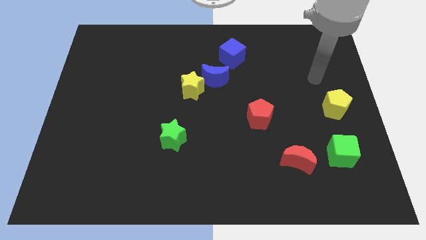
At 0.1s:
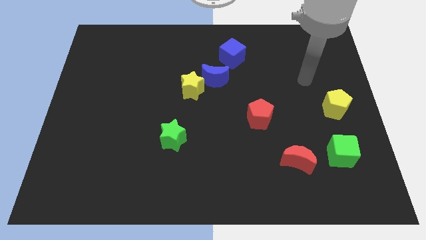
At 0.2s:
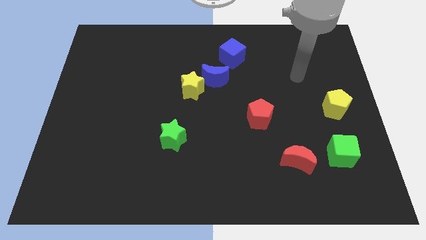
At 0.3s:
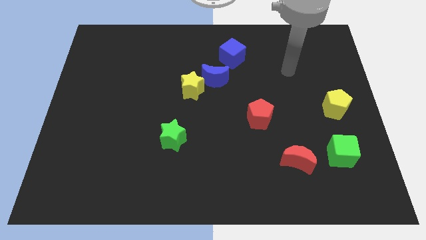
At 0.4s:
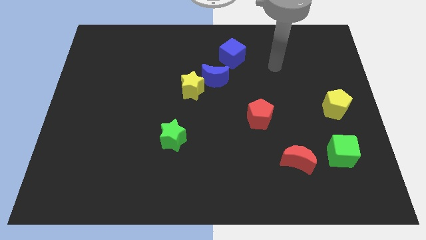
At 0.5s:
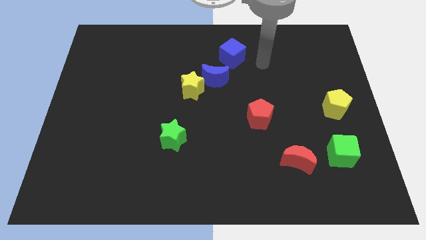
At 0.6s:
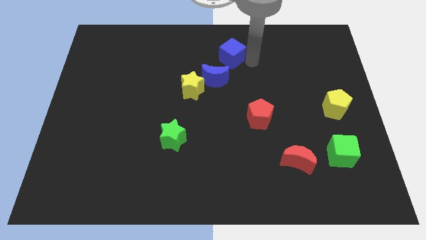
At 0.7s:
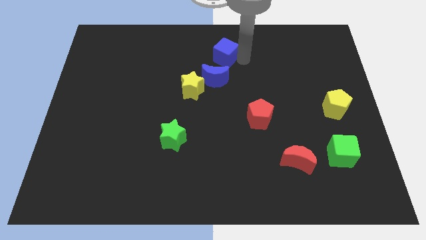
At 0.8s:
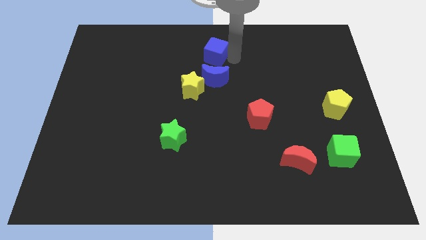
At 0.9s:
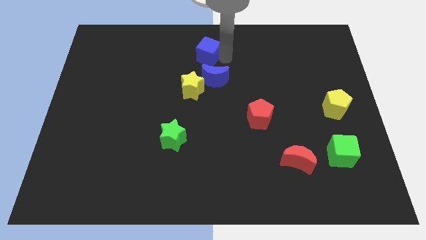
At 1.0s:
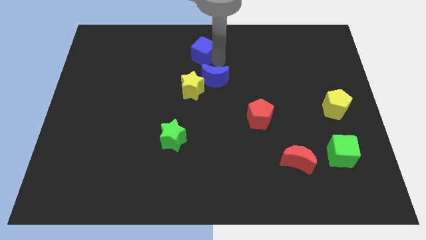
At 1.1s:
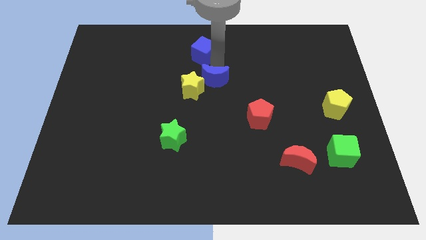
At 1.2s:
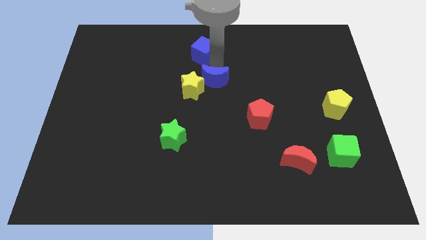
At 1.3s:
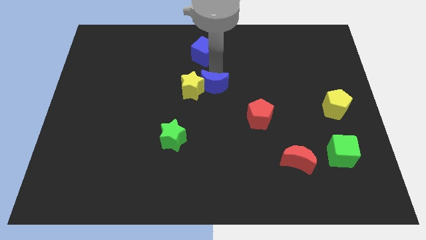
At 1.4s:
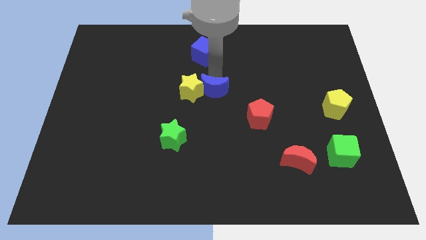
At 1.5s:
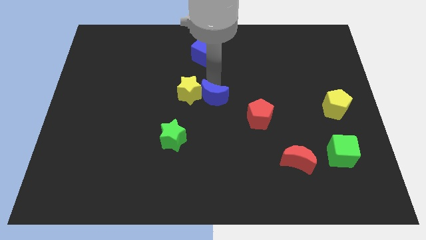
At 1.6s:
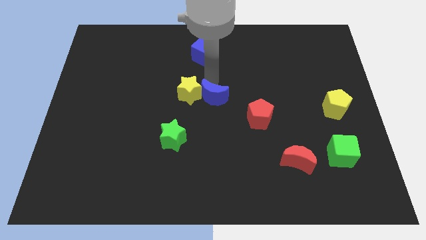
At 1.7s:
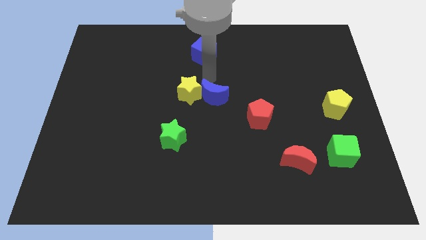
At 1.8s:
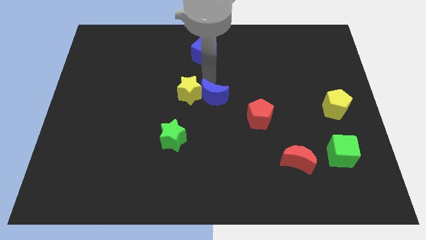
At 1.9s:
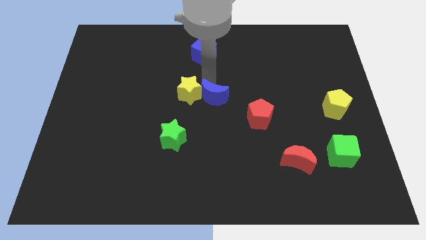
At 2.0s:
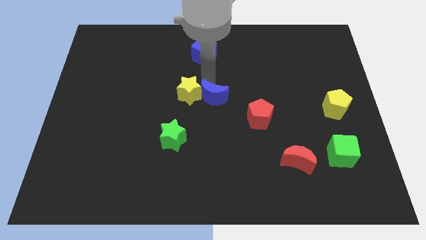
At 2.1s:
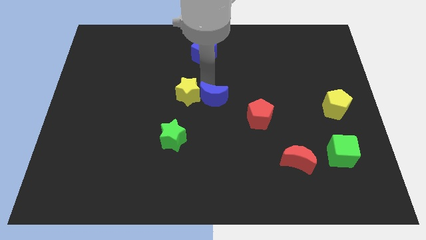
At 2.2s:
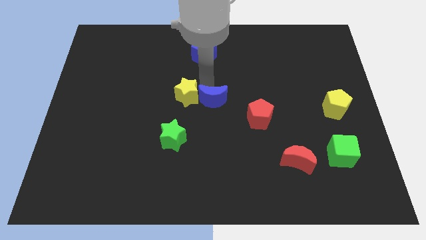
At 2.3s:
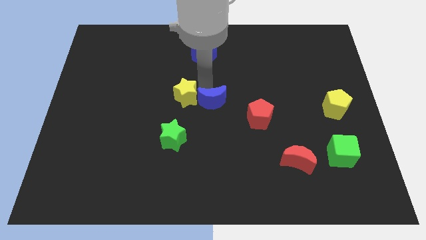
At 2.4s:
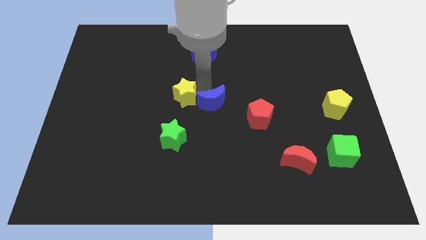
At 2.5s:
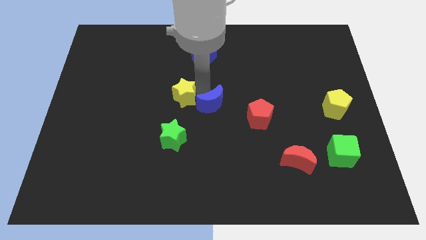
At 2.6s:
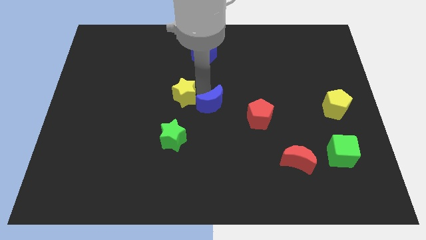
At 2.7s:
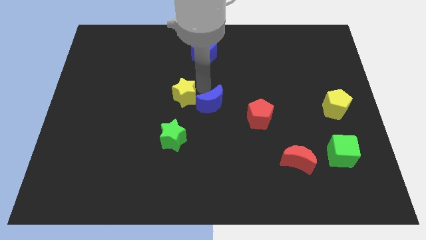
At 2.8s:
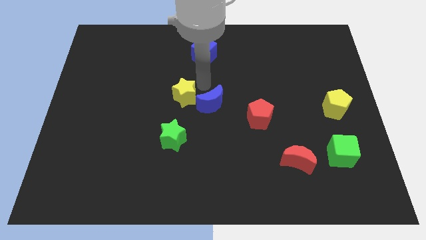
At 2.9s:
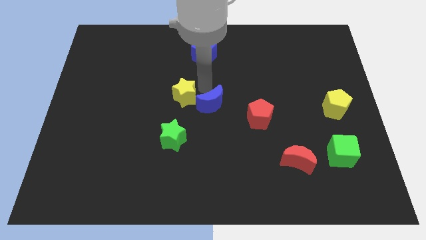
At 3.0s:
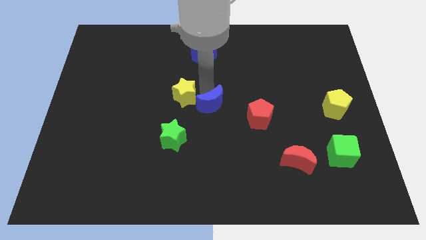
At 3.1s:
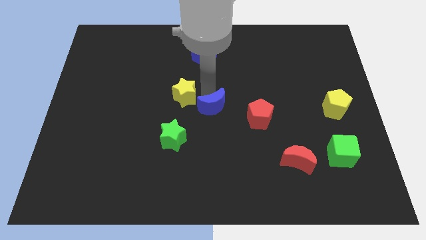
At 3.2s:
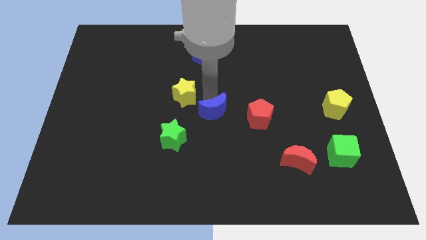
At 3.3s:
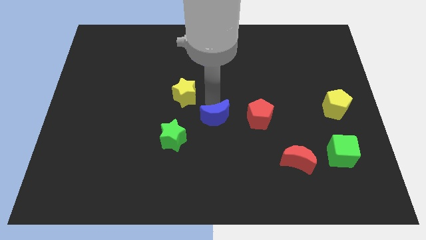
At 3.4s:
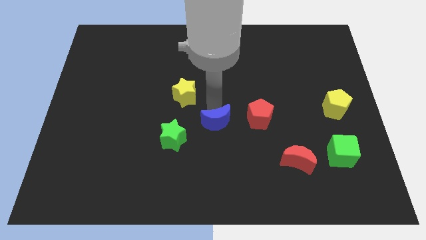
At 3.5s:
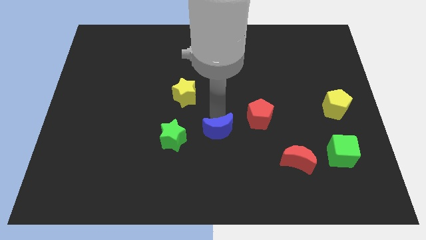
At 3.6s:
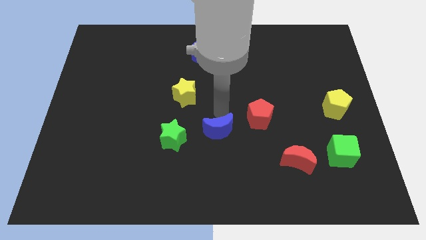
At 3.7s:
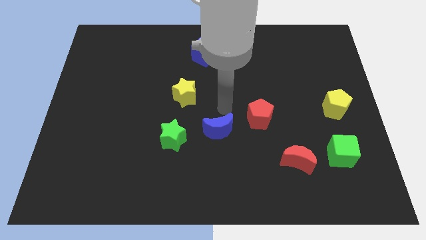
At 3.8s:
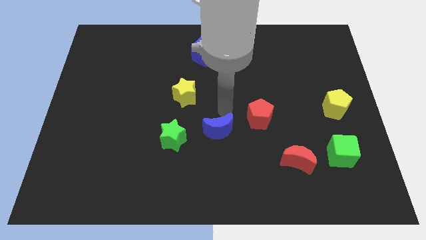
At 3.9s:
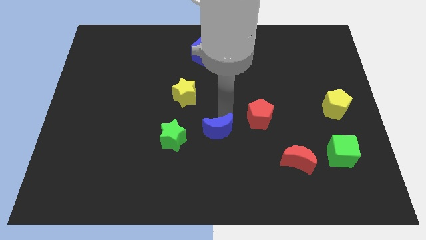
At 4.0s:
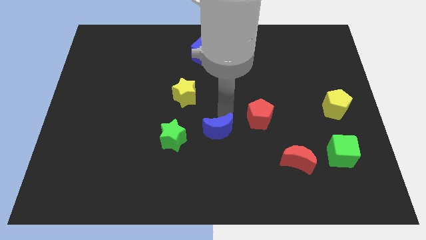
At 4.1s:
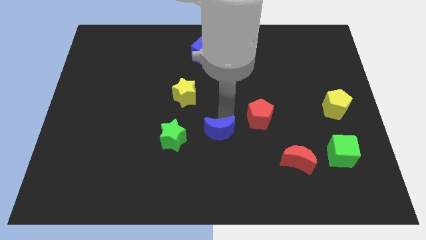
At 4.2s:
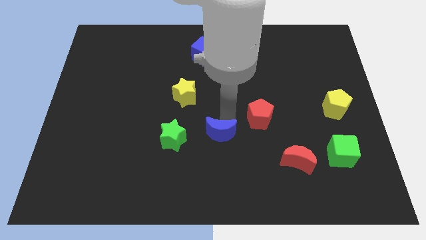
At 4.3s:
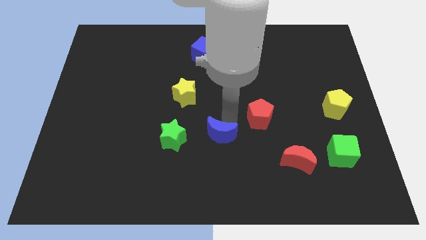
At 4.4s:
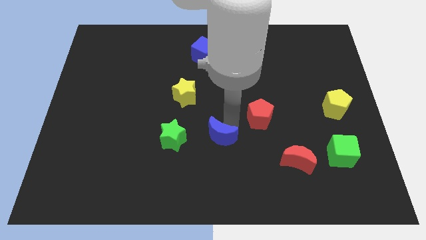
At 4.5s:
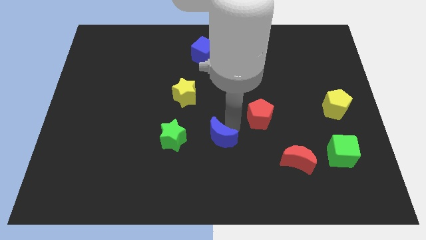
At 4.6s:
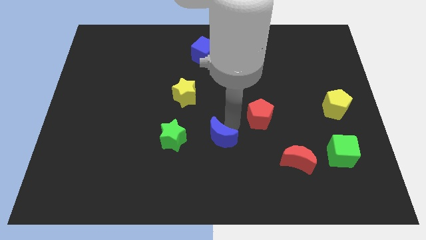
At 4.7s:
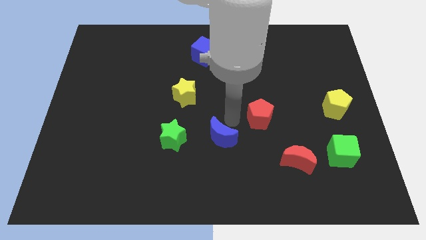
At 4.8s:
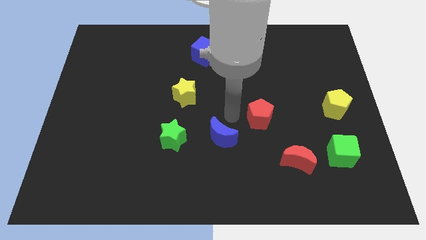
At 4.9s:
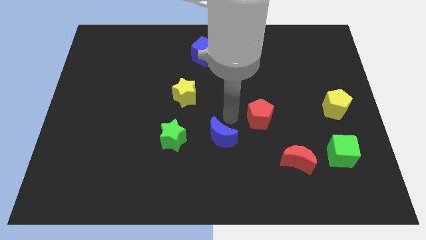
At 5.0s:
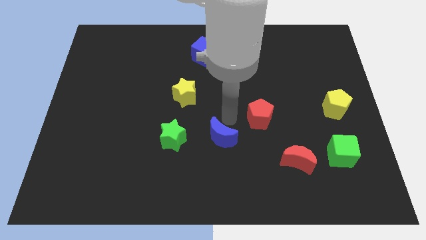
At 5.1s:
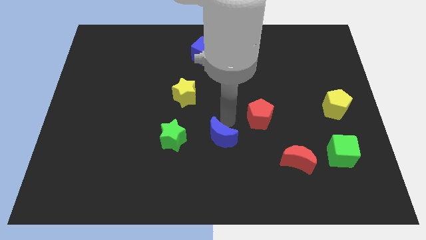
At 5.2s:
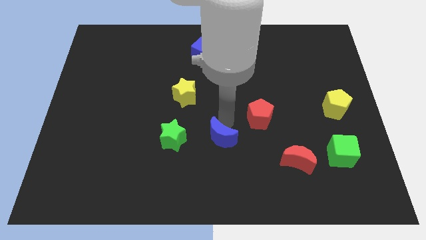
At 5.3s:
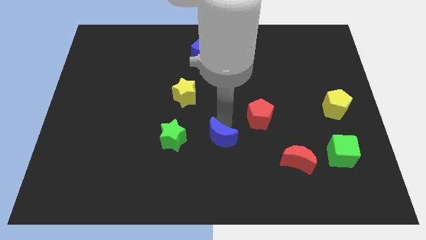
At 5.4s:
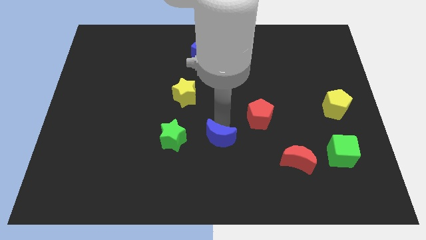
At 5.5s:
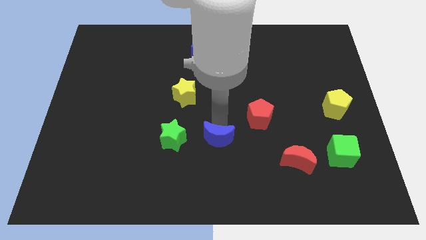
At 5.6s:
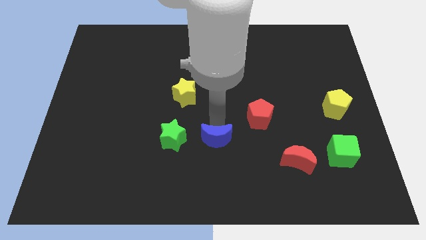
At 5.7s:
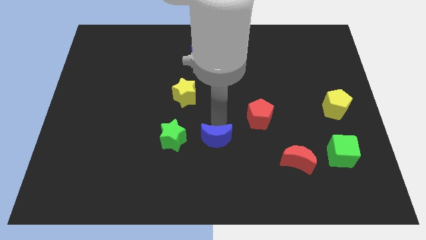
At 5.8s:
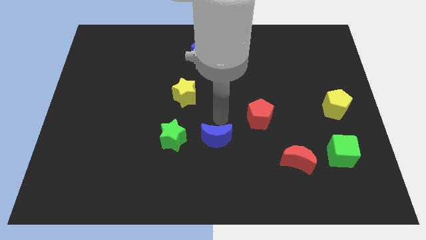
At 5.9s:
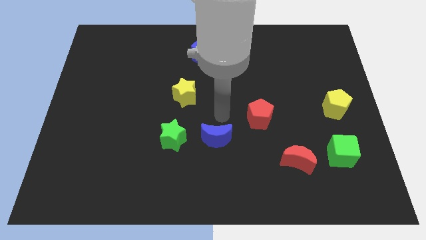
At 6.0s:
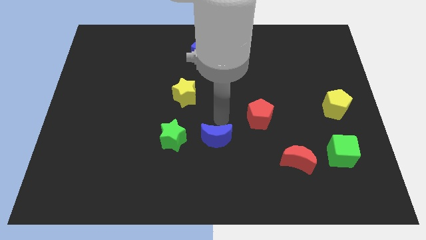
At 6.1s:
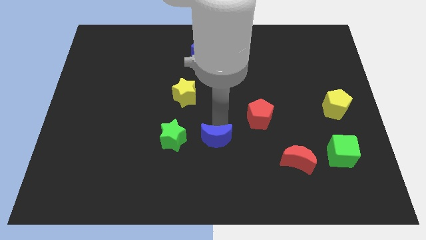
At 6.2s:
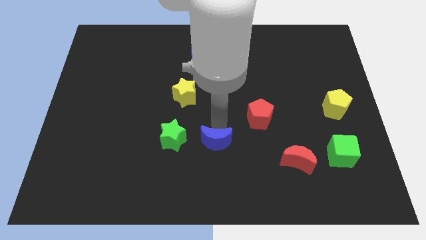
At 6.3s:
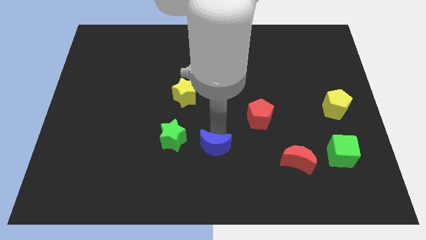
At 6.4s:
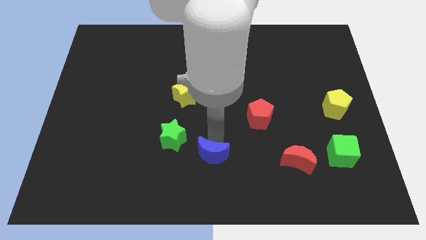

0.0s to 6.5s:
move the blue moon to the bottom
